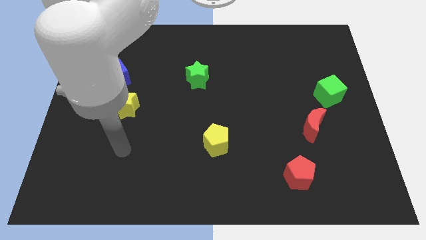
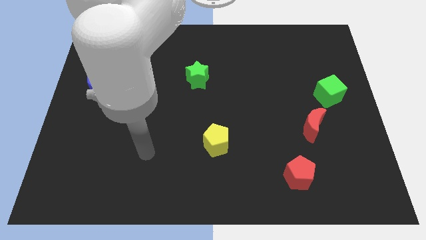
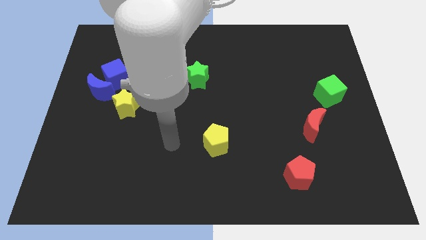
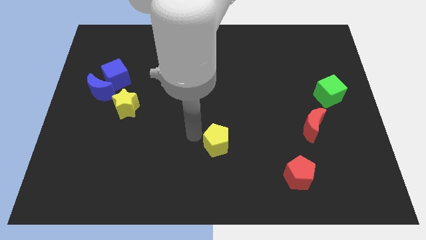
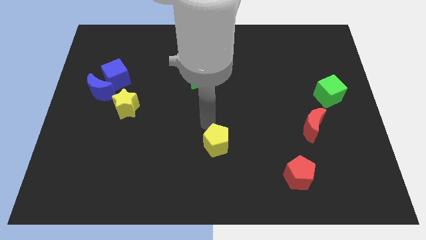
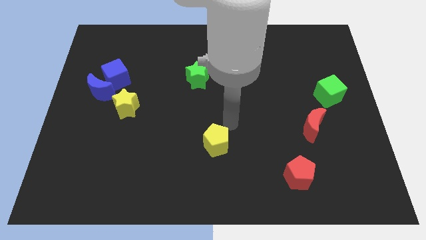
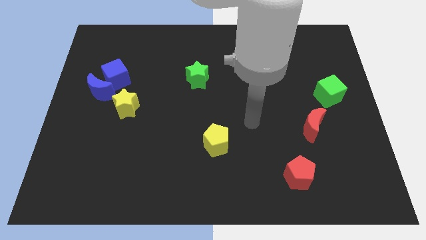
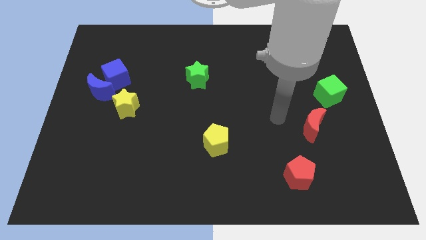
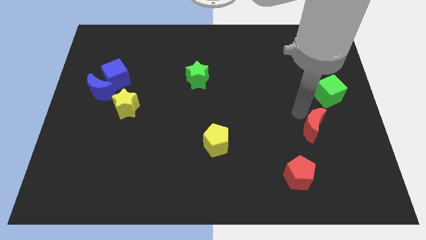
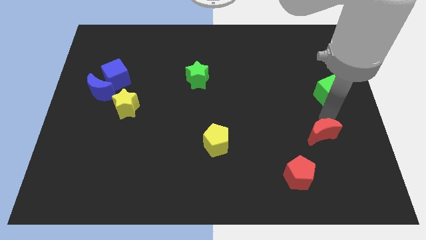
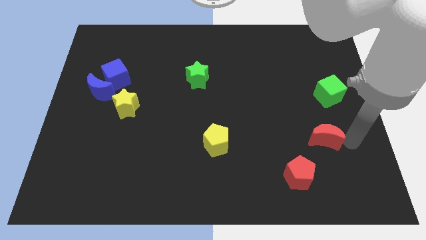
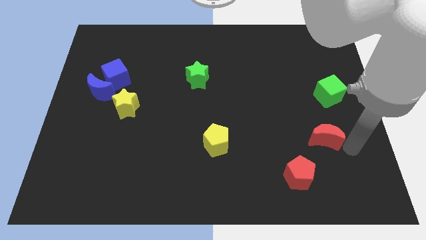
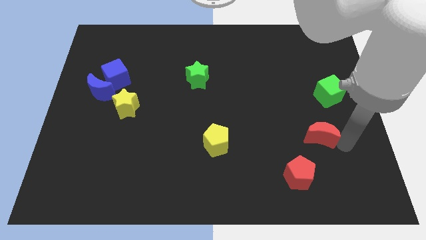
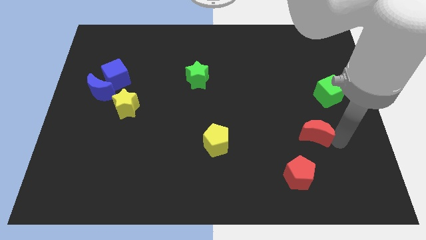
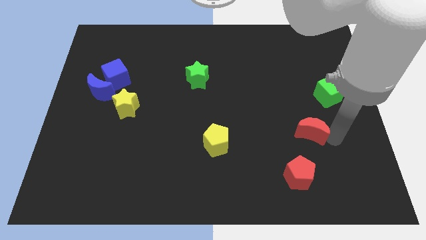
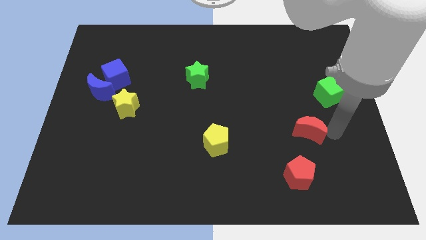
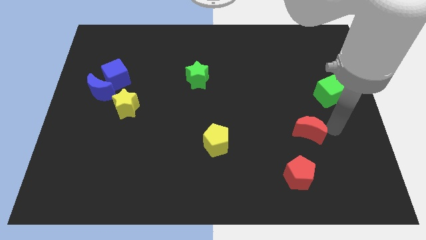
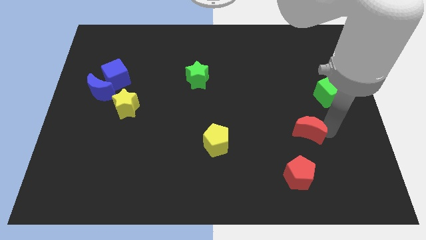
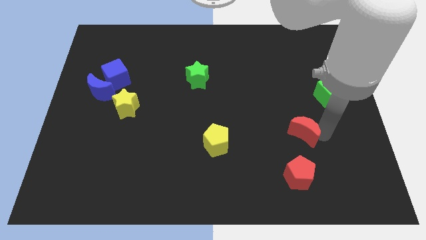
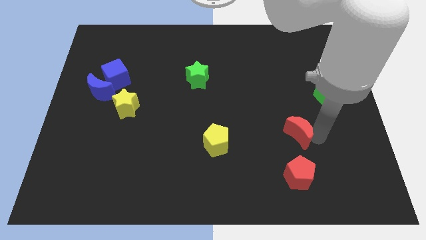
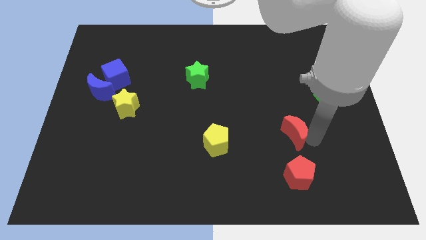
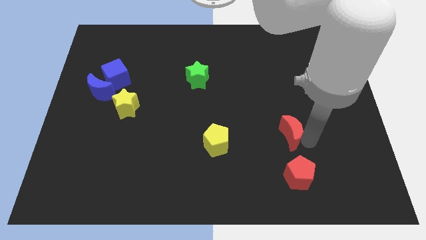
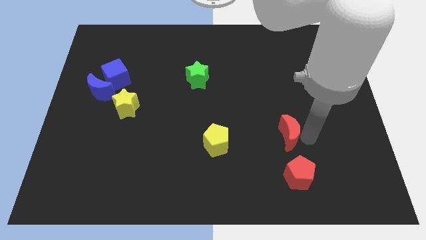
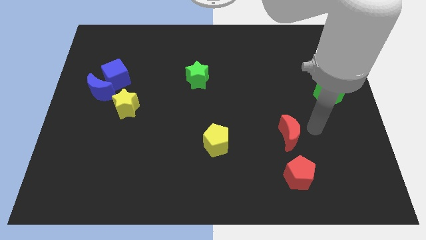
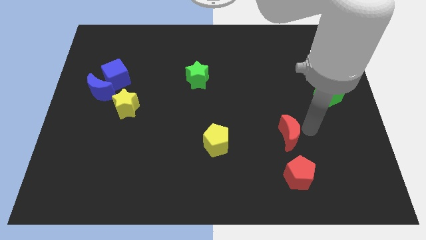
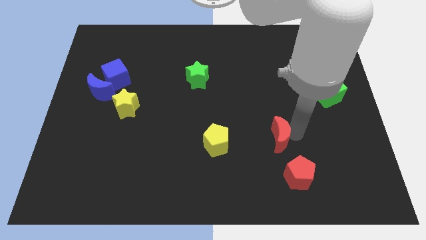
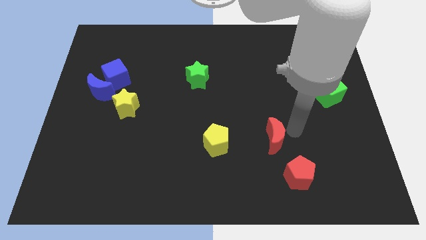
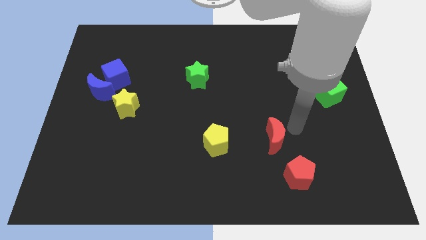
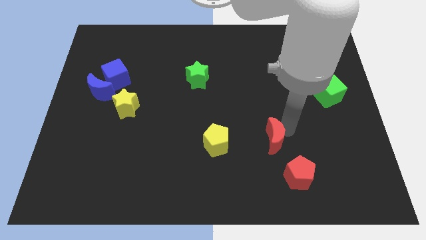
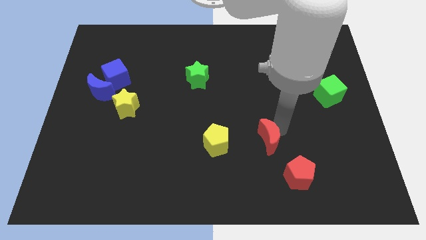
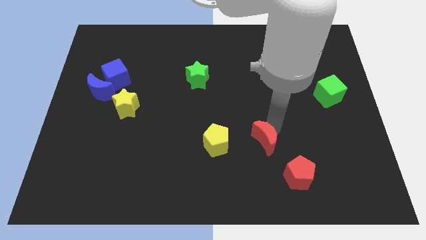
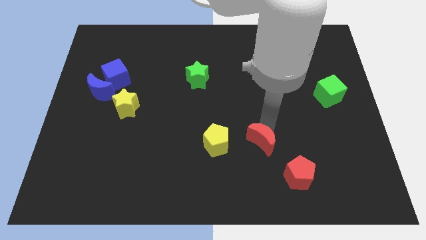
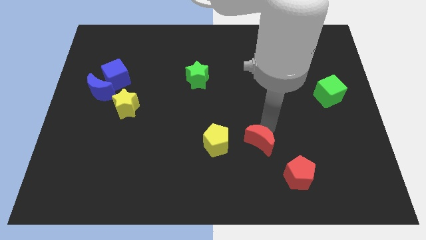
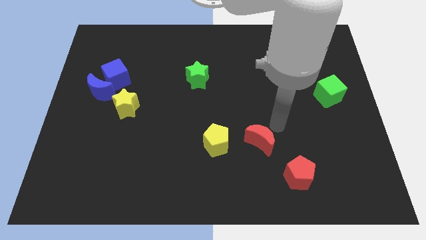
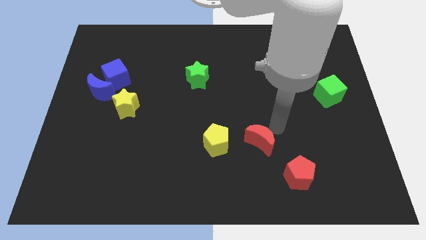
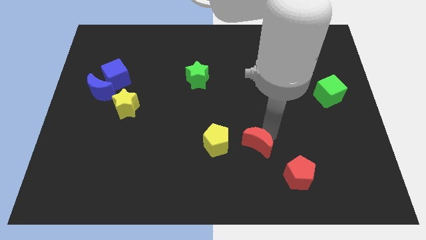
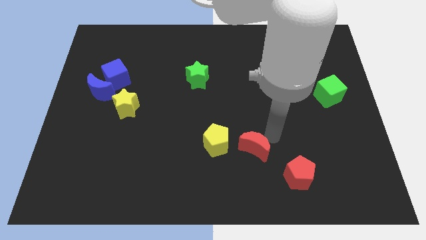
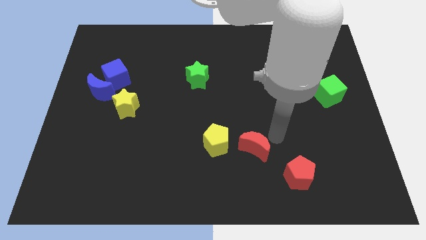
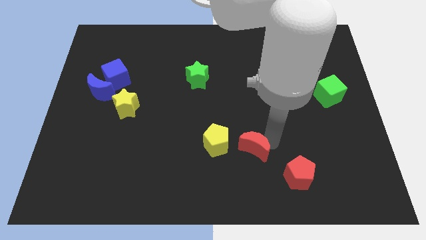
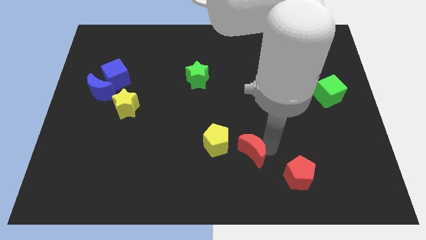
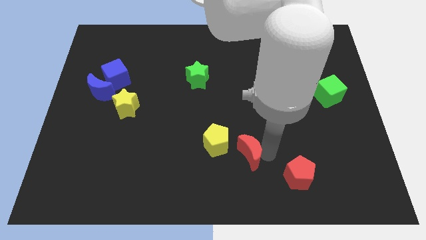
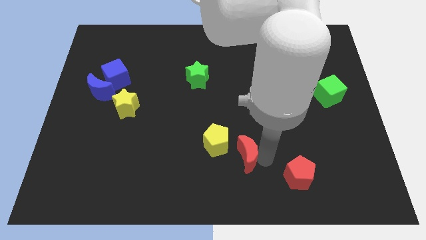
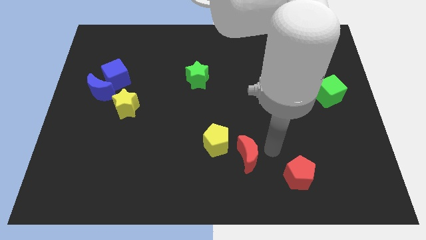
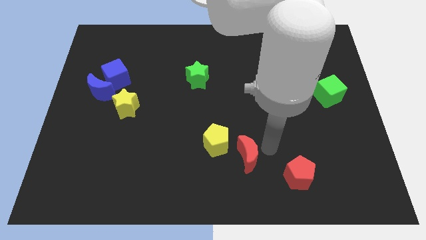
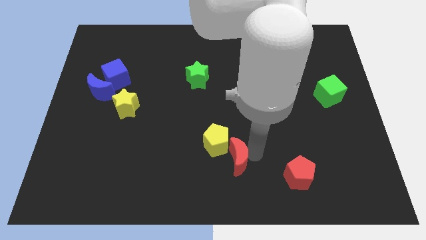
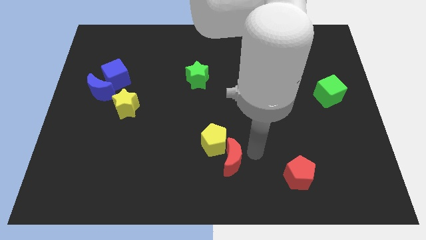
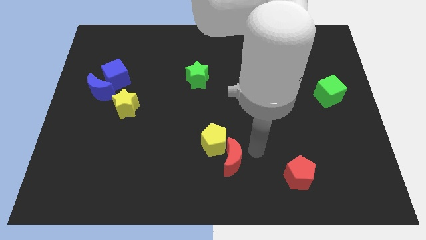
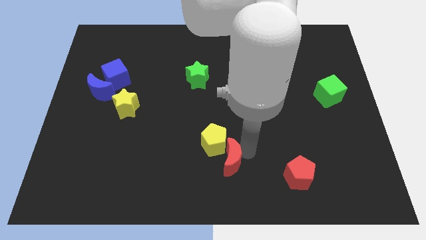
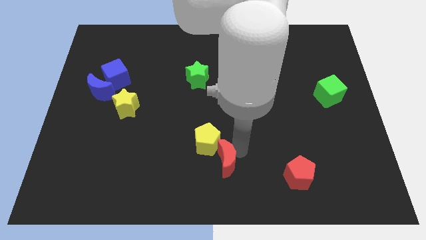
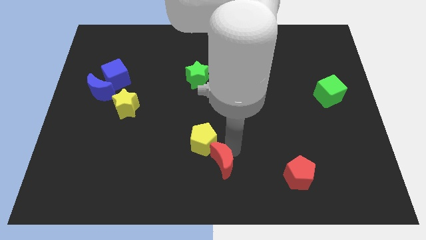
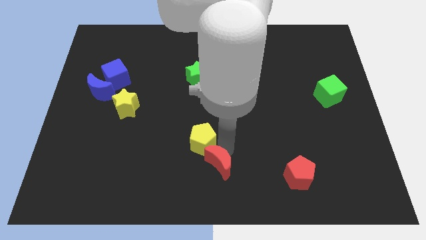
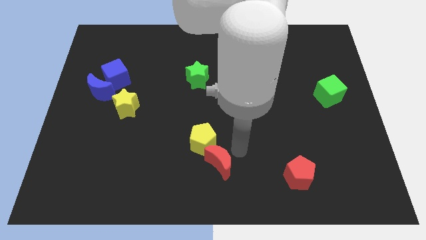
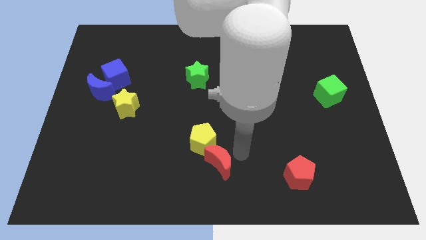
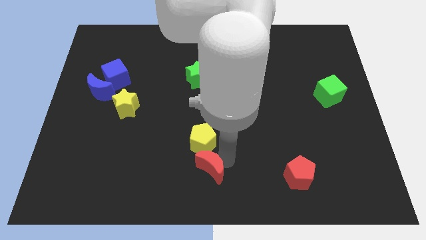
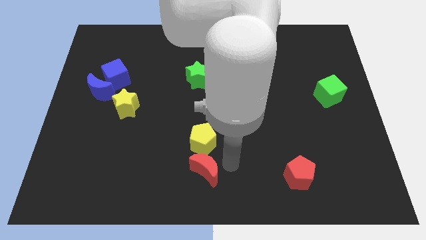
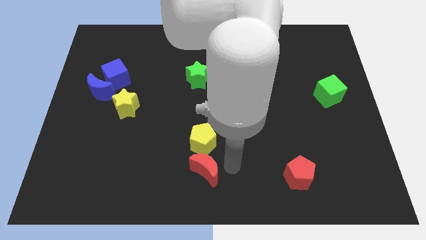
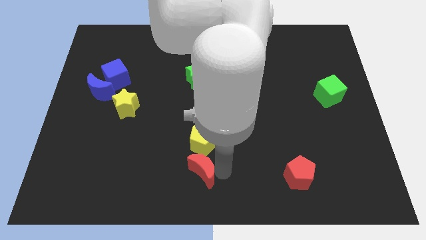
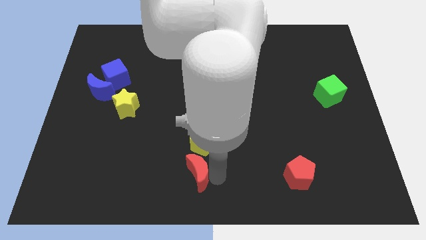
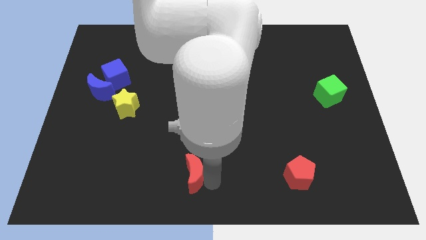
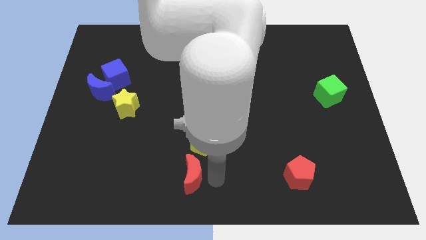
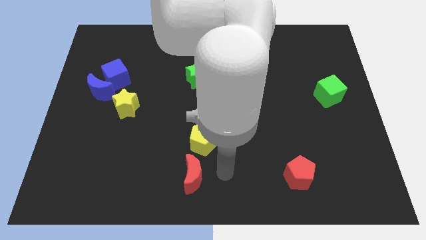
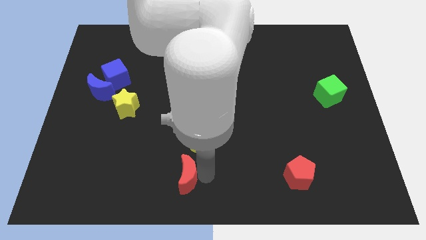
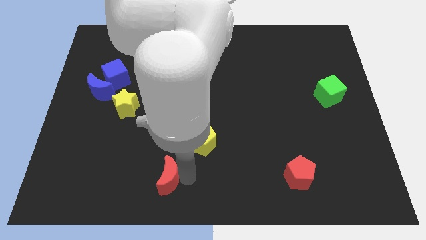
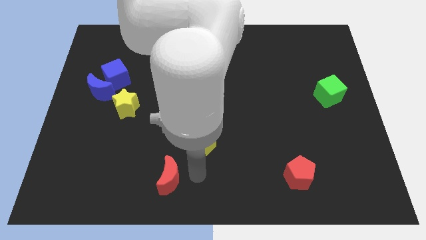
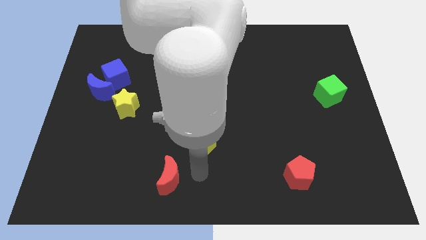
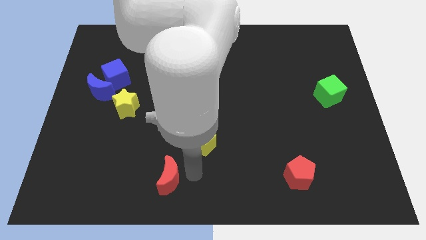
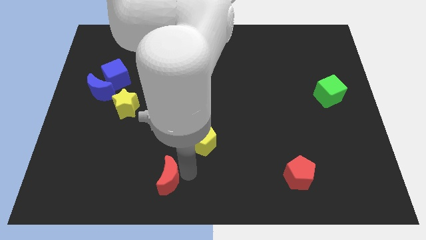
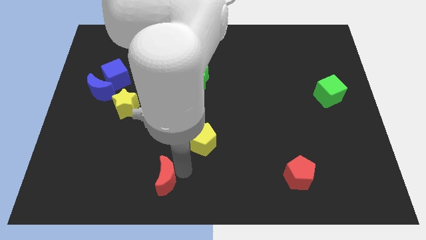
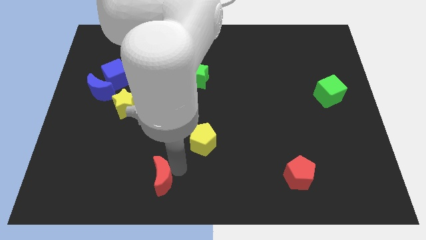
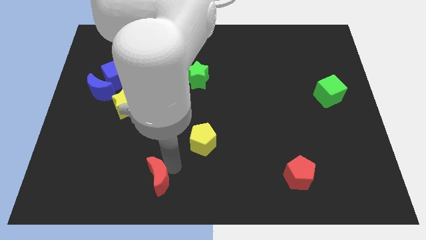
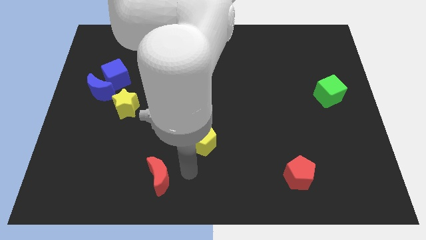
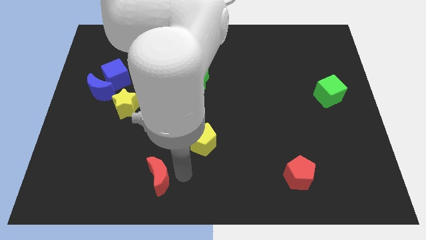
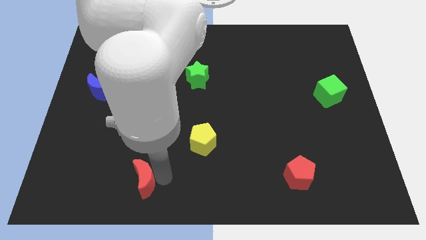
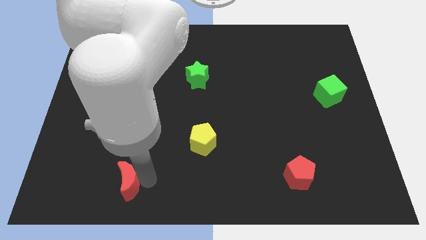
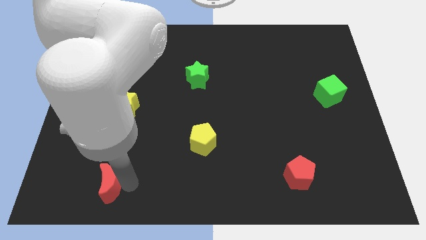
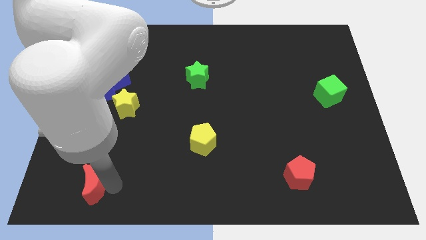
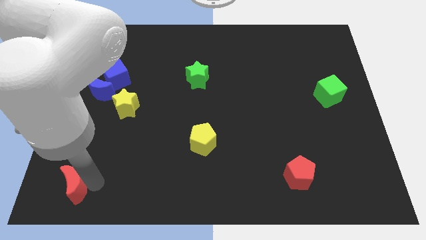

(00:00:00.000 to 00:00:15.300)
push the red moon to the bottom left corner
